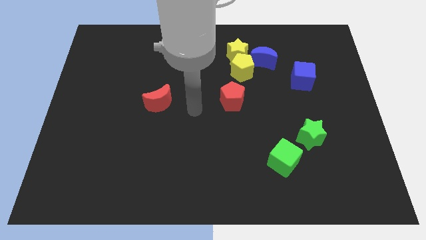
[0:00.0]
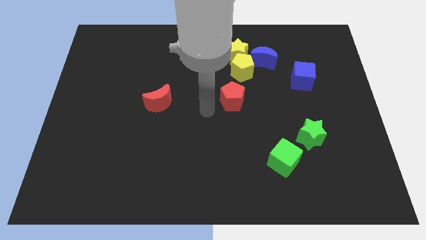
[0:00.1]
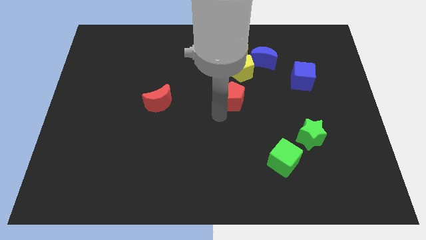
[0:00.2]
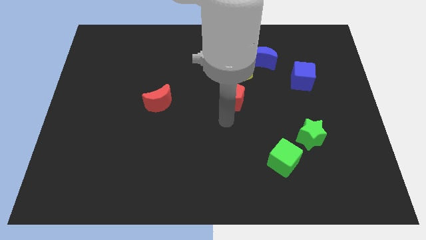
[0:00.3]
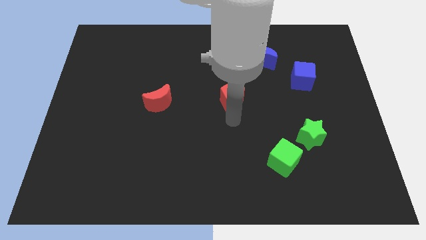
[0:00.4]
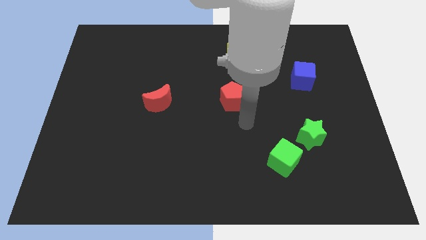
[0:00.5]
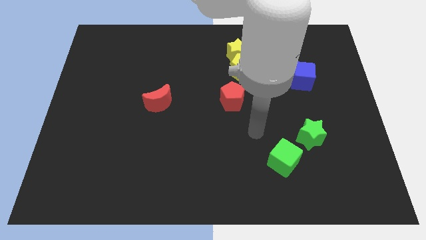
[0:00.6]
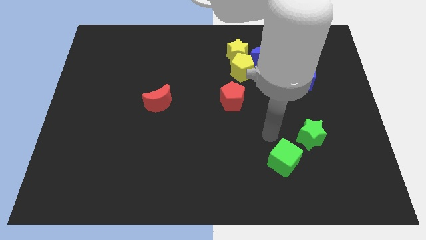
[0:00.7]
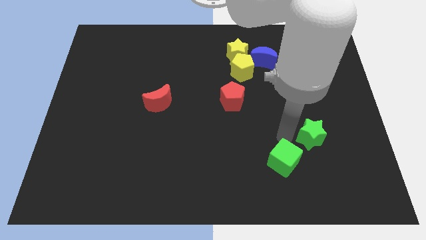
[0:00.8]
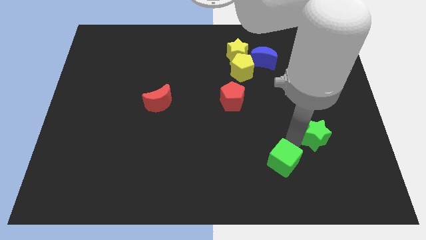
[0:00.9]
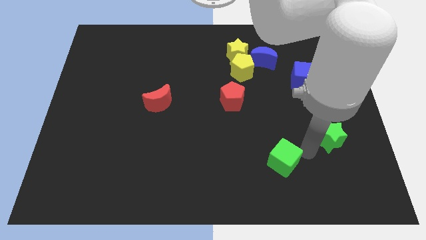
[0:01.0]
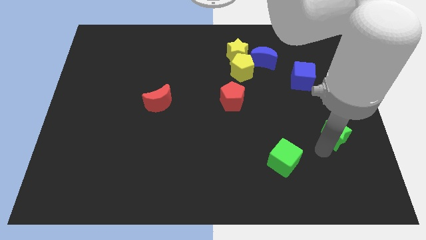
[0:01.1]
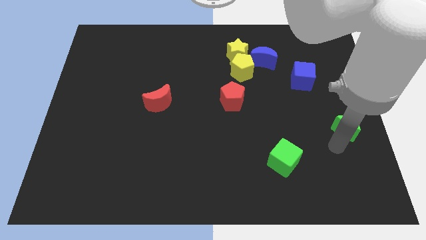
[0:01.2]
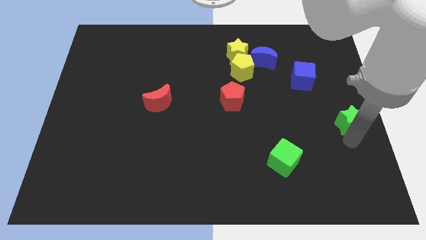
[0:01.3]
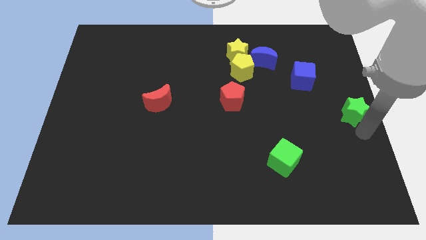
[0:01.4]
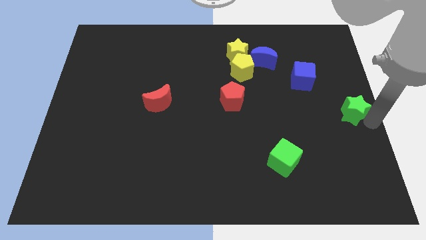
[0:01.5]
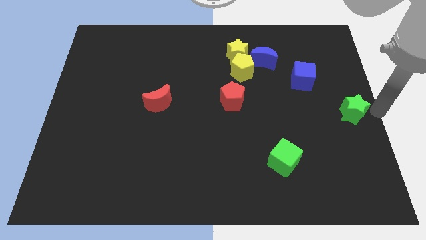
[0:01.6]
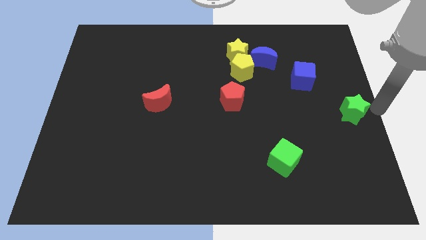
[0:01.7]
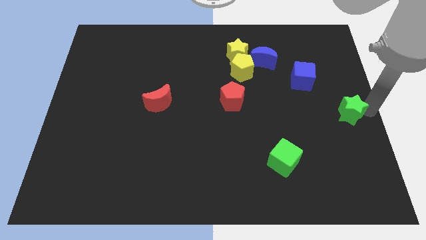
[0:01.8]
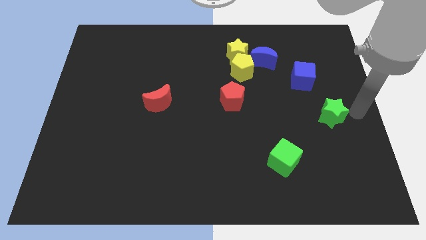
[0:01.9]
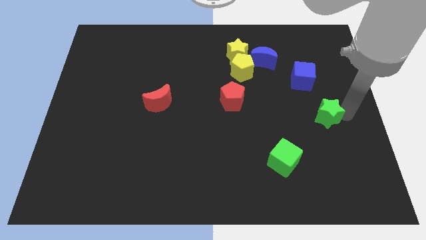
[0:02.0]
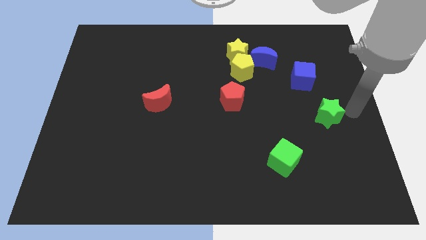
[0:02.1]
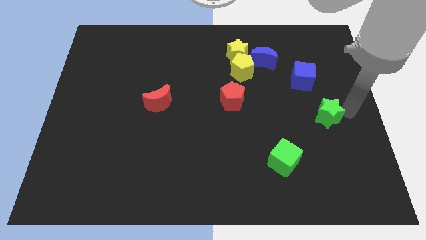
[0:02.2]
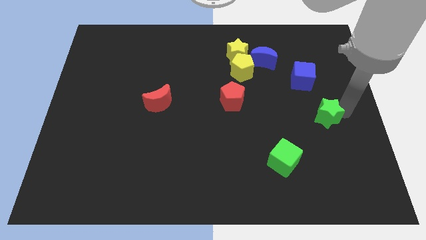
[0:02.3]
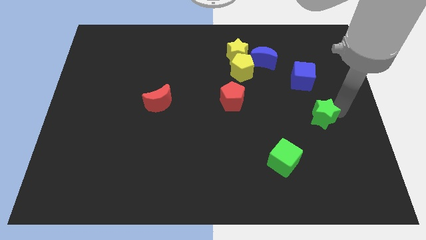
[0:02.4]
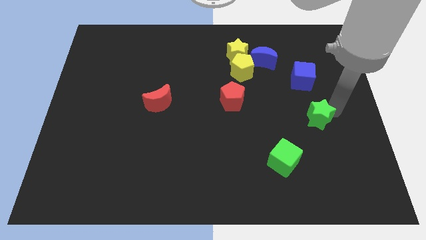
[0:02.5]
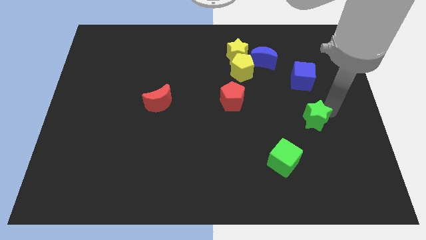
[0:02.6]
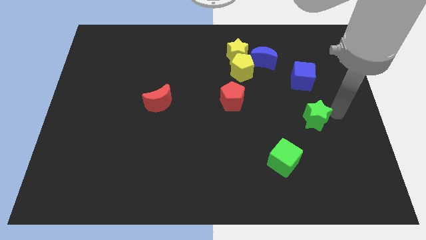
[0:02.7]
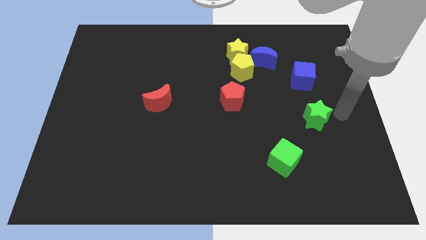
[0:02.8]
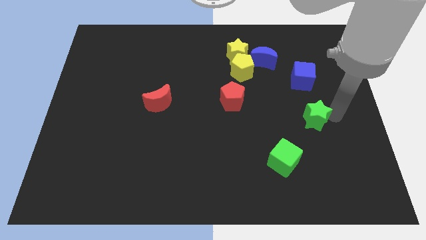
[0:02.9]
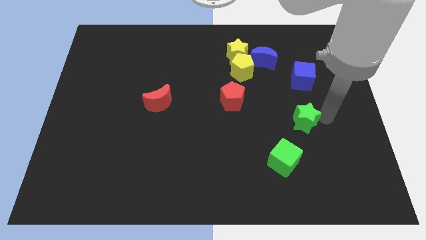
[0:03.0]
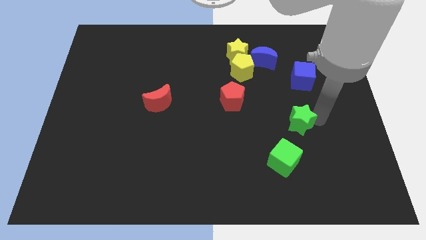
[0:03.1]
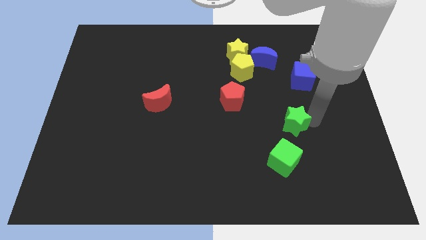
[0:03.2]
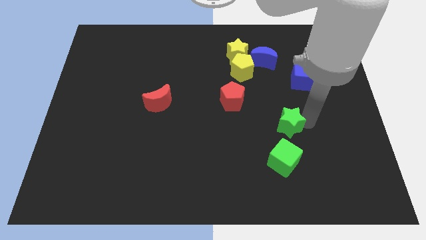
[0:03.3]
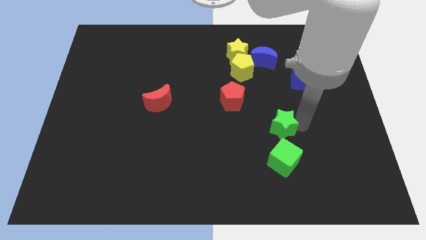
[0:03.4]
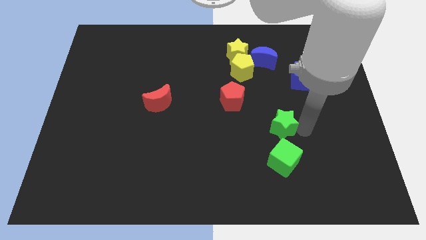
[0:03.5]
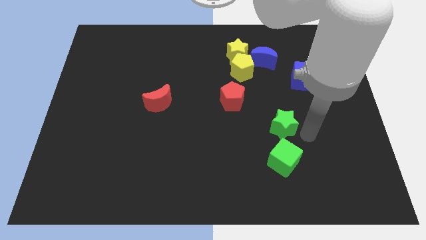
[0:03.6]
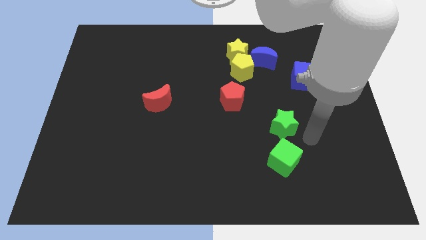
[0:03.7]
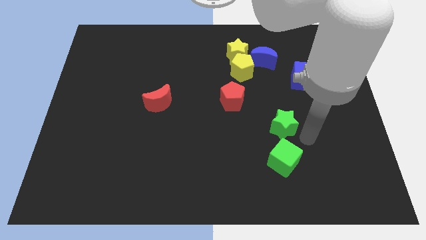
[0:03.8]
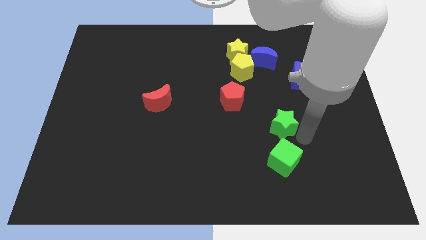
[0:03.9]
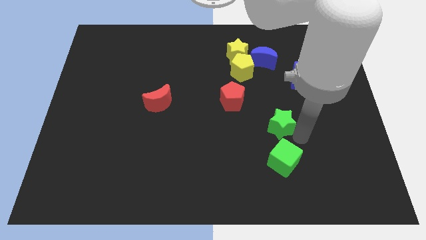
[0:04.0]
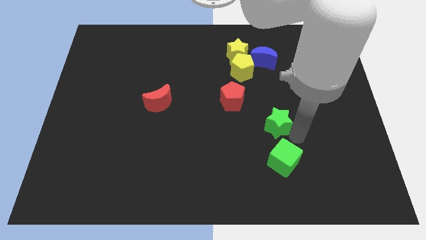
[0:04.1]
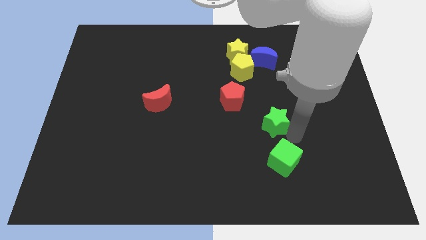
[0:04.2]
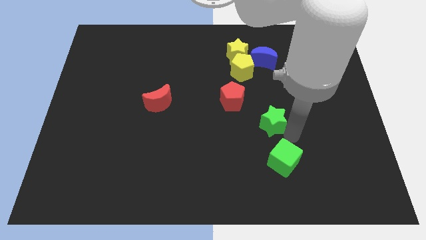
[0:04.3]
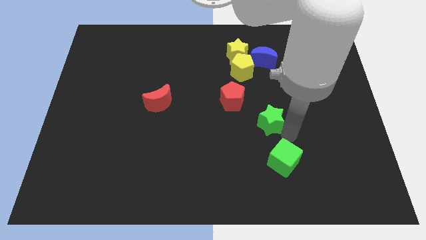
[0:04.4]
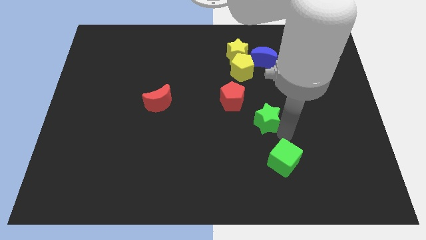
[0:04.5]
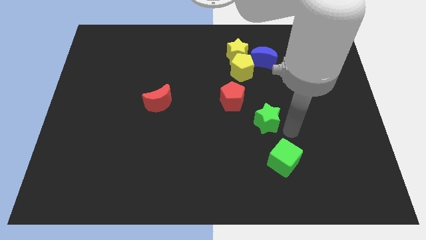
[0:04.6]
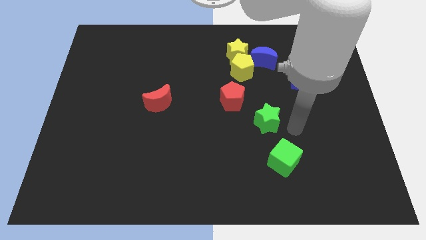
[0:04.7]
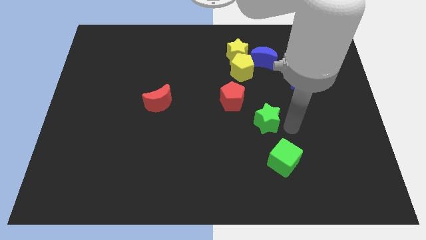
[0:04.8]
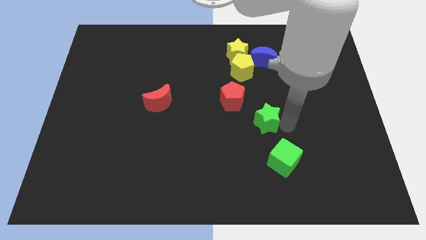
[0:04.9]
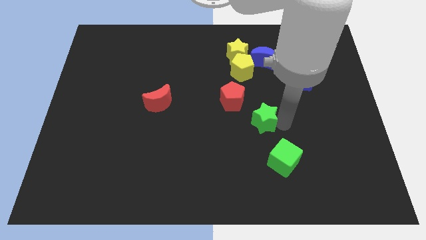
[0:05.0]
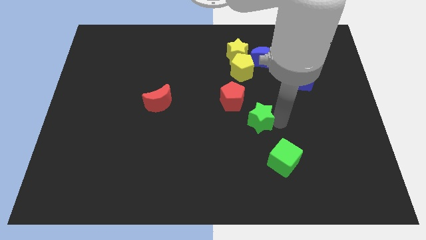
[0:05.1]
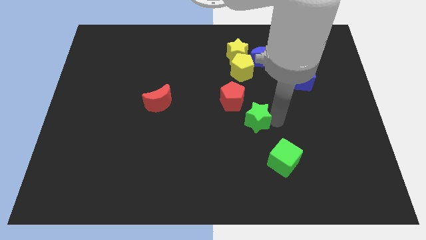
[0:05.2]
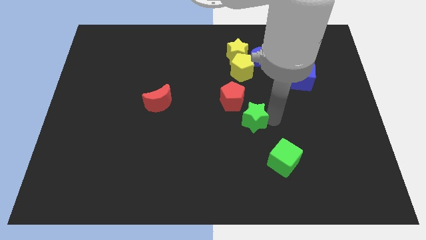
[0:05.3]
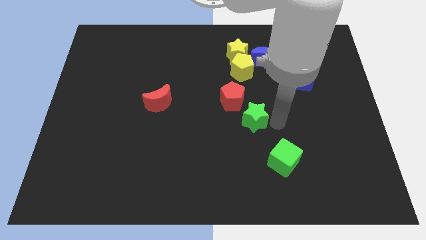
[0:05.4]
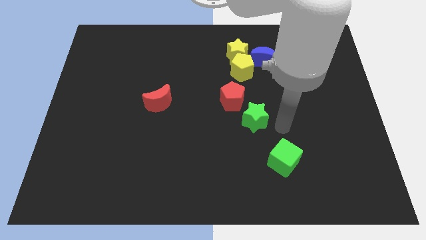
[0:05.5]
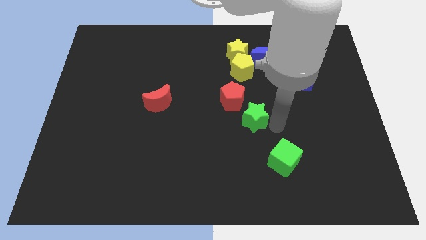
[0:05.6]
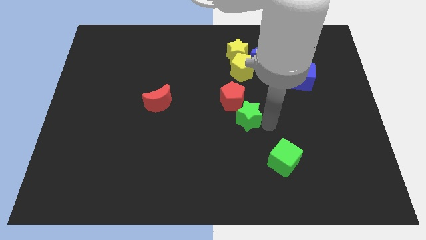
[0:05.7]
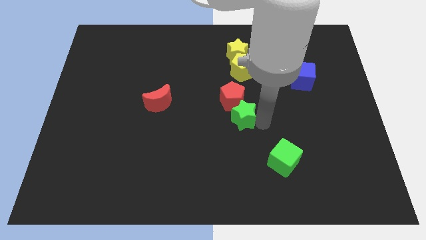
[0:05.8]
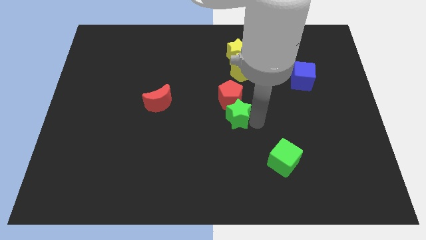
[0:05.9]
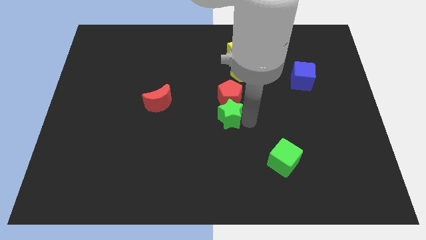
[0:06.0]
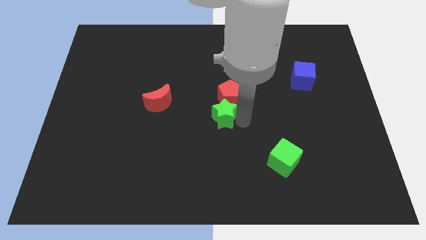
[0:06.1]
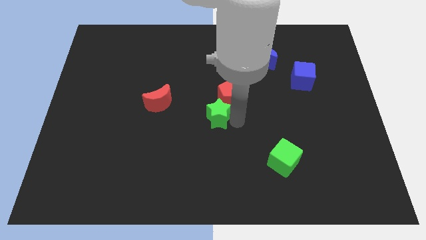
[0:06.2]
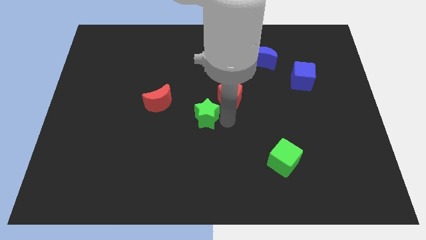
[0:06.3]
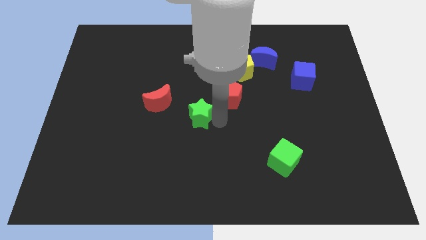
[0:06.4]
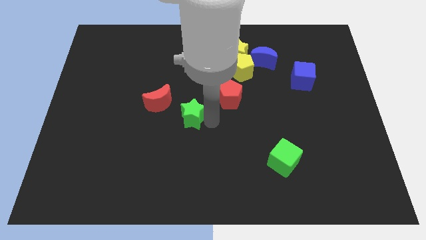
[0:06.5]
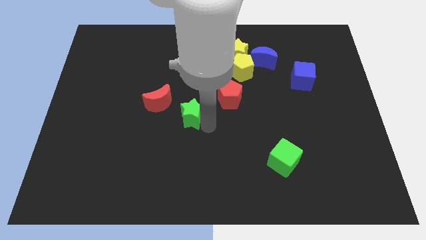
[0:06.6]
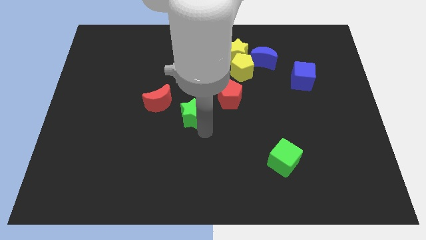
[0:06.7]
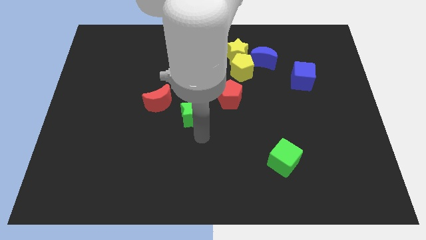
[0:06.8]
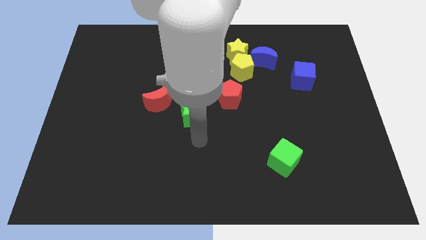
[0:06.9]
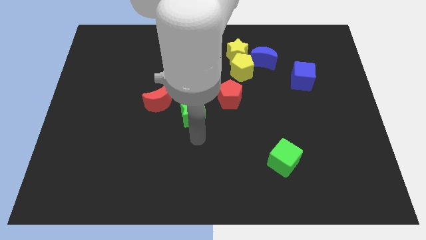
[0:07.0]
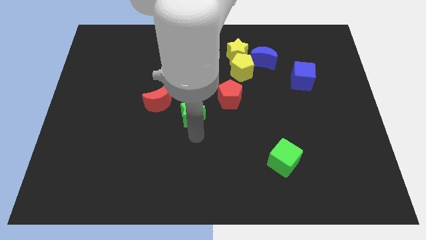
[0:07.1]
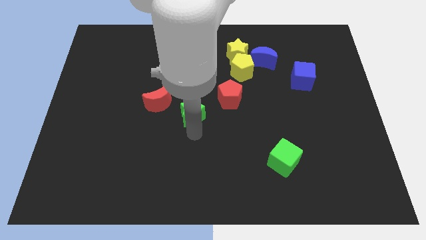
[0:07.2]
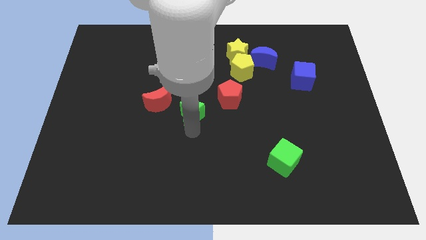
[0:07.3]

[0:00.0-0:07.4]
push the green star to the left side of the red pentagon

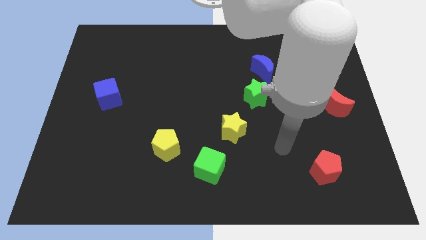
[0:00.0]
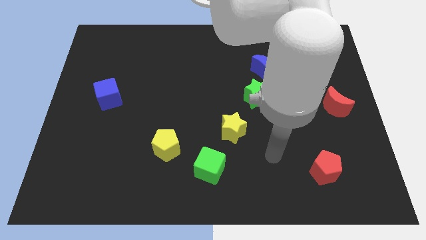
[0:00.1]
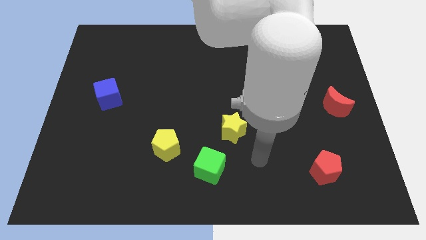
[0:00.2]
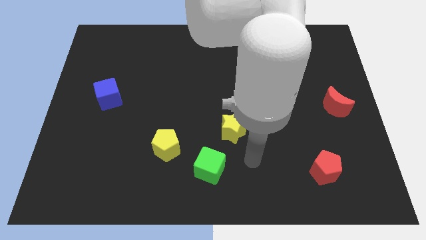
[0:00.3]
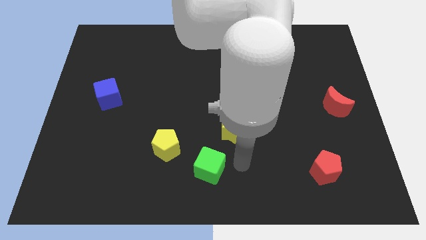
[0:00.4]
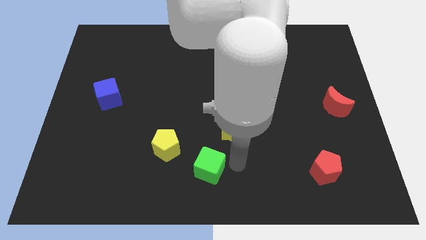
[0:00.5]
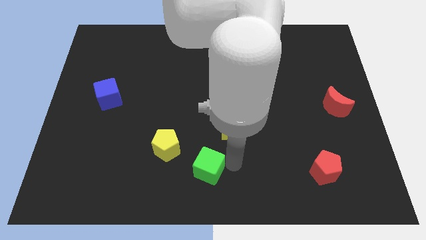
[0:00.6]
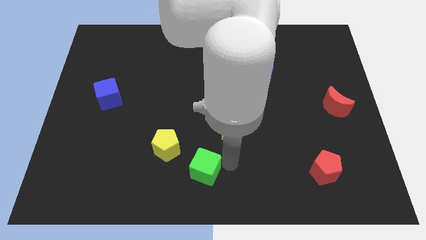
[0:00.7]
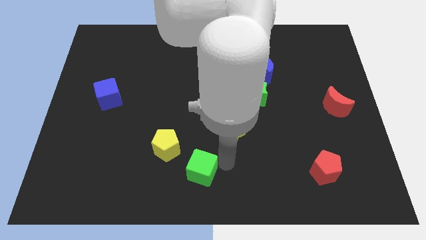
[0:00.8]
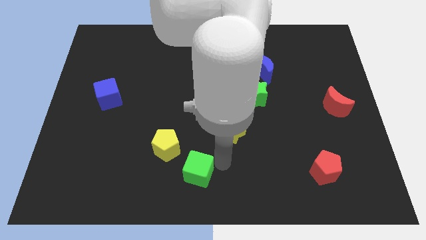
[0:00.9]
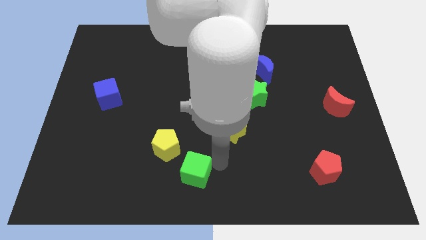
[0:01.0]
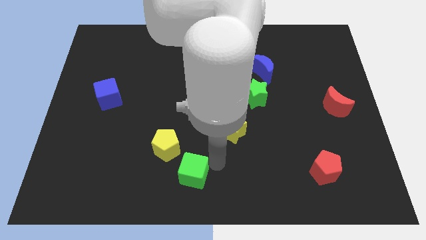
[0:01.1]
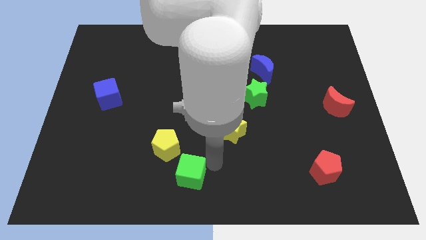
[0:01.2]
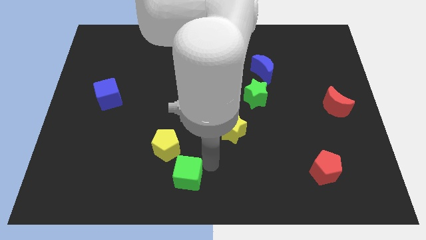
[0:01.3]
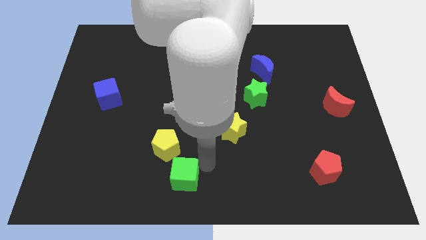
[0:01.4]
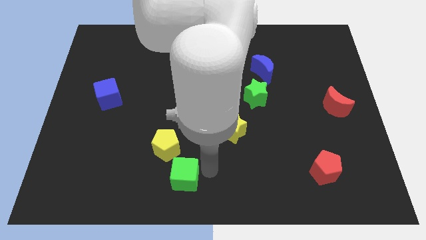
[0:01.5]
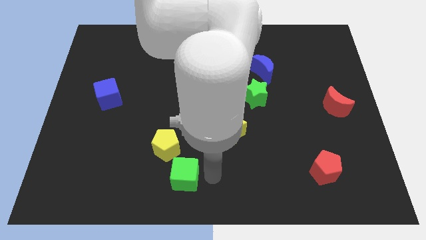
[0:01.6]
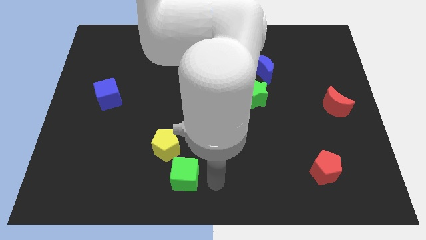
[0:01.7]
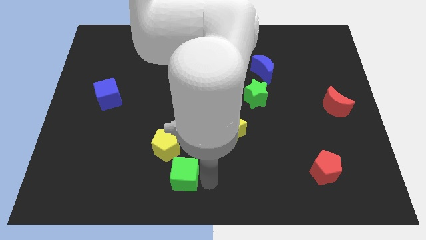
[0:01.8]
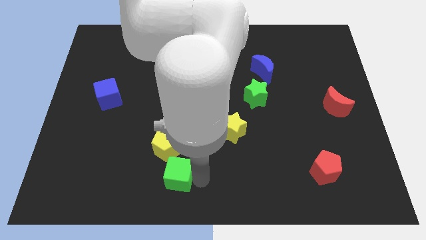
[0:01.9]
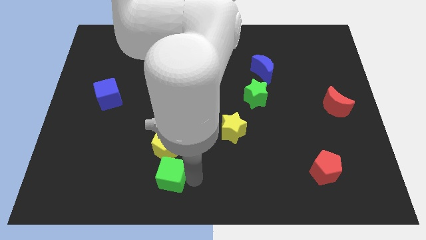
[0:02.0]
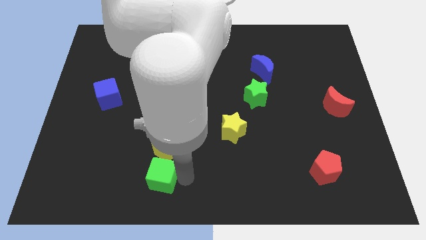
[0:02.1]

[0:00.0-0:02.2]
put the green cube to the bottom left of the yellow pentagon
